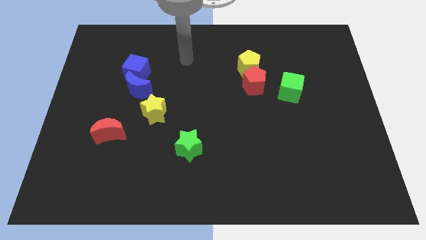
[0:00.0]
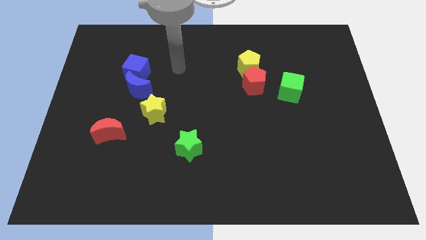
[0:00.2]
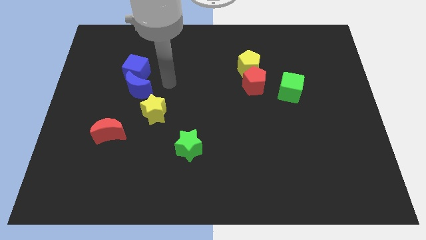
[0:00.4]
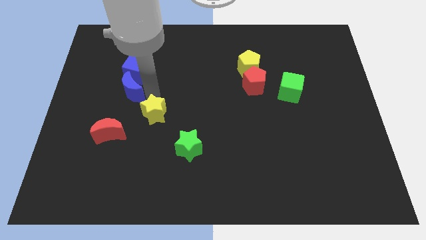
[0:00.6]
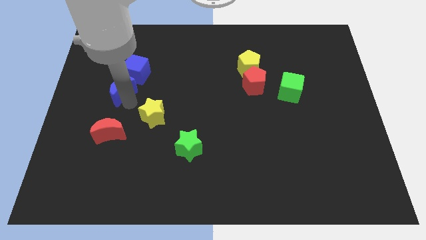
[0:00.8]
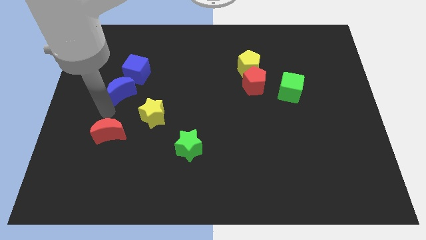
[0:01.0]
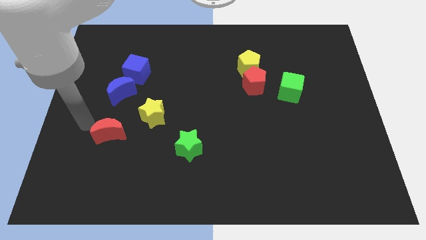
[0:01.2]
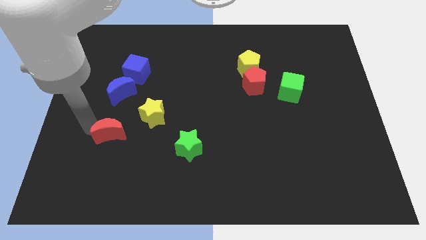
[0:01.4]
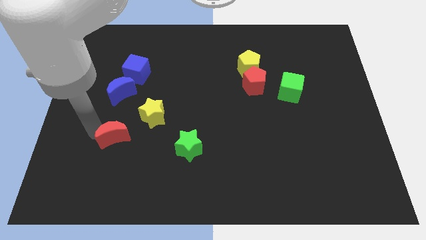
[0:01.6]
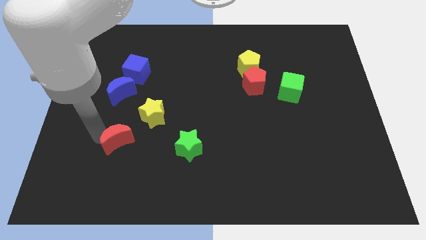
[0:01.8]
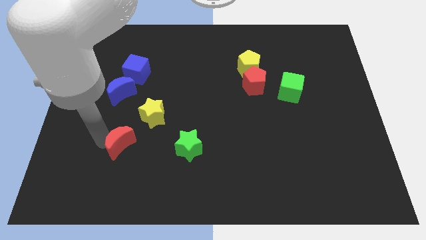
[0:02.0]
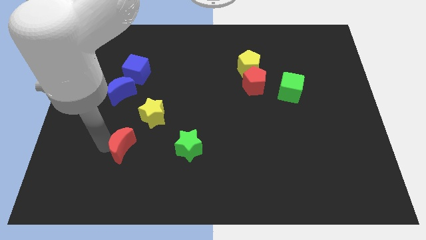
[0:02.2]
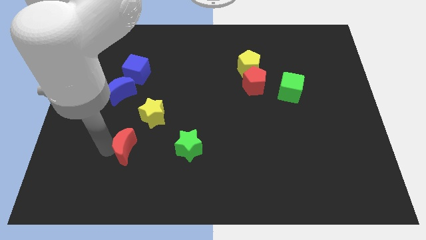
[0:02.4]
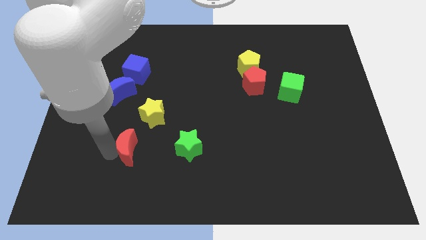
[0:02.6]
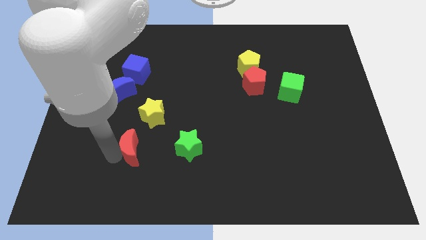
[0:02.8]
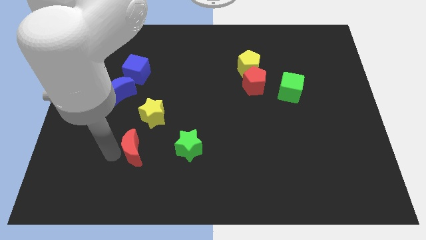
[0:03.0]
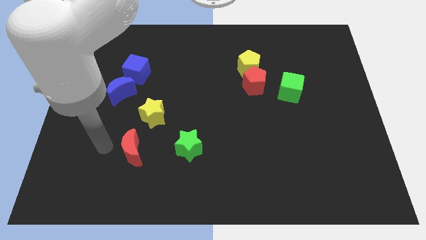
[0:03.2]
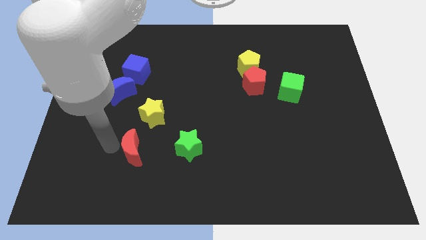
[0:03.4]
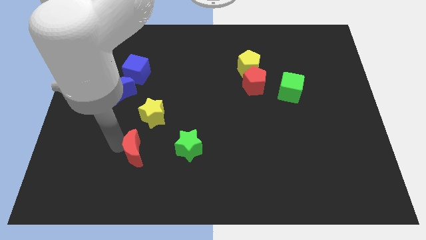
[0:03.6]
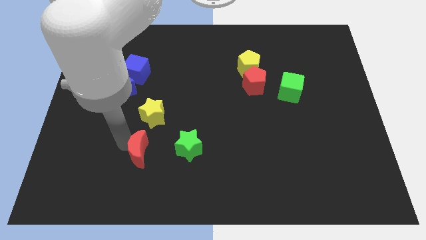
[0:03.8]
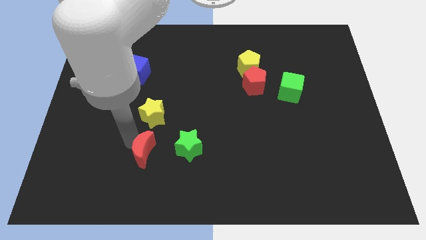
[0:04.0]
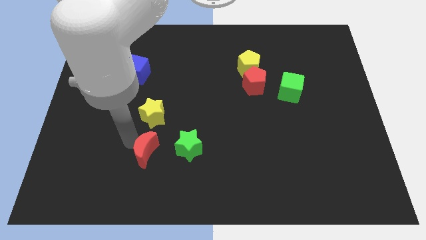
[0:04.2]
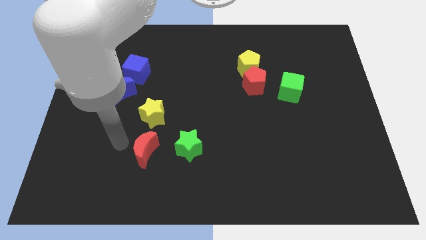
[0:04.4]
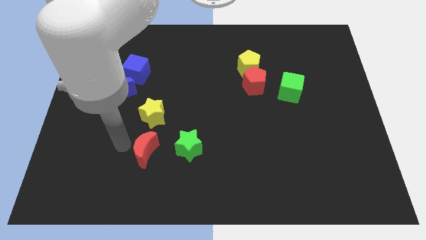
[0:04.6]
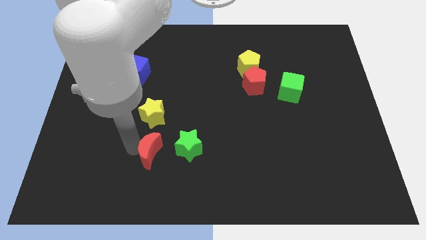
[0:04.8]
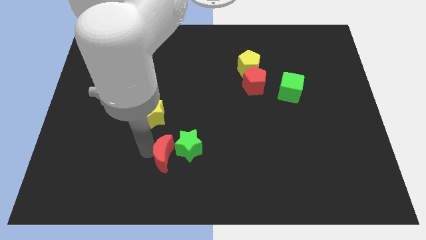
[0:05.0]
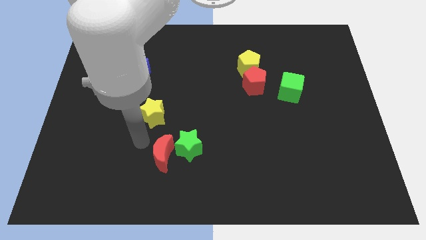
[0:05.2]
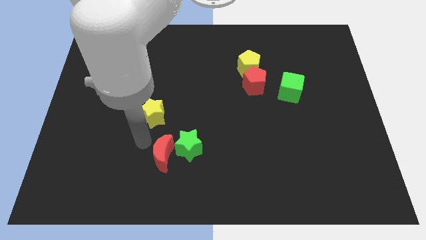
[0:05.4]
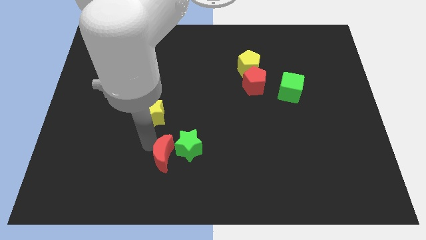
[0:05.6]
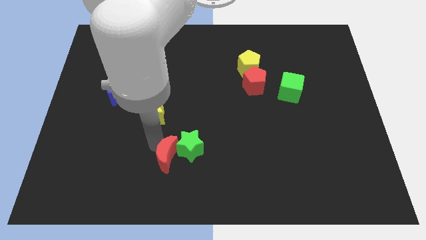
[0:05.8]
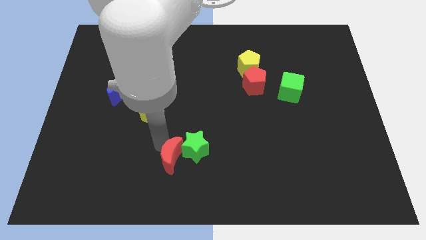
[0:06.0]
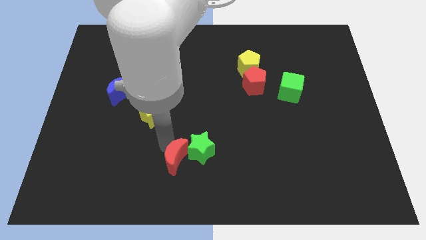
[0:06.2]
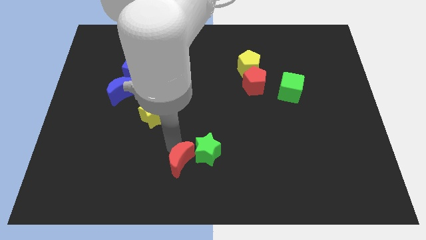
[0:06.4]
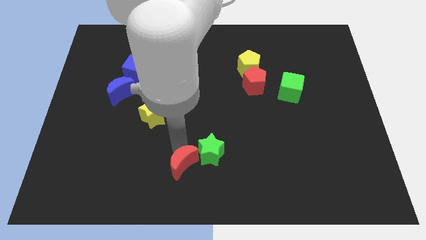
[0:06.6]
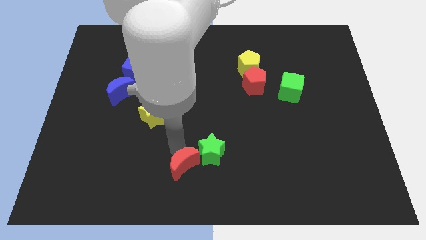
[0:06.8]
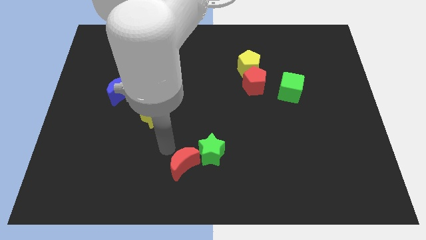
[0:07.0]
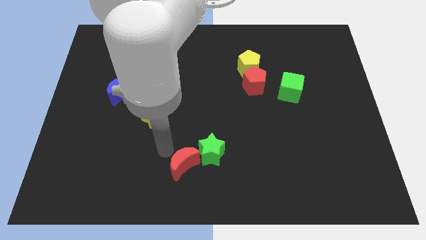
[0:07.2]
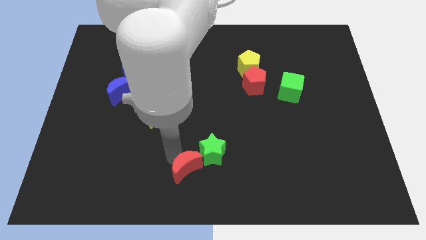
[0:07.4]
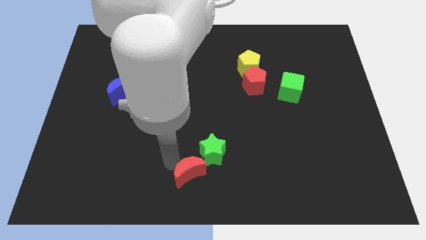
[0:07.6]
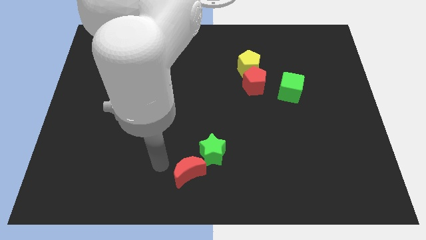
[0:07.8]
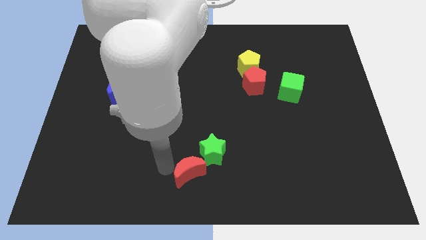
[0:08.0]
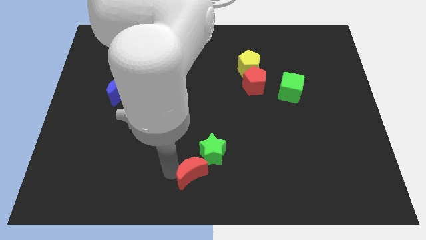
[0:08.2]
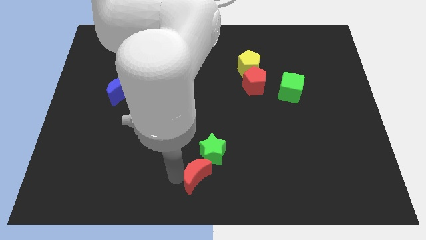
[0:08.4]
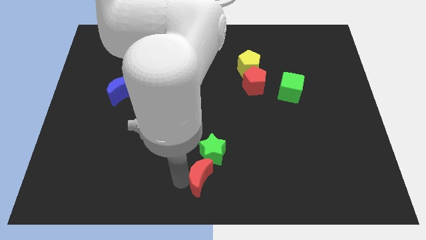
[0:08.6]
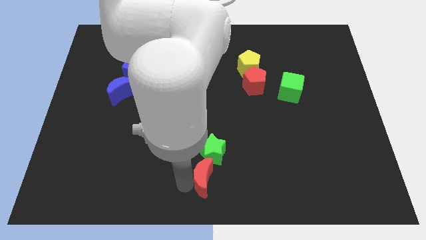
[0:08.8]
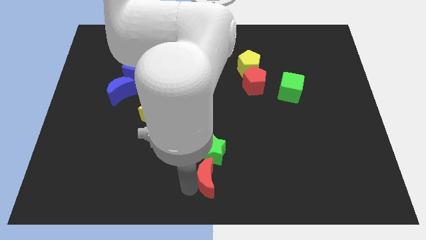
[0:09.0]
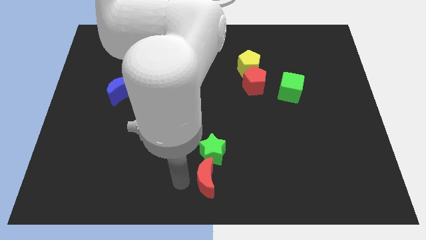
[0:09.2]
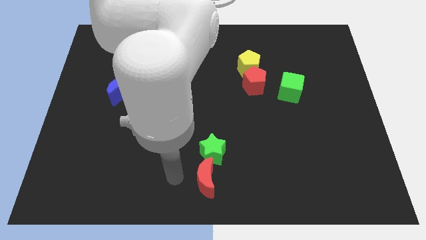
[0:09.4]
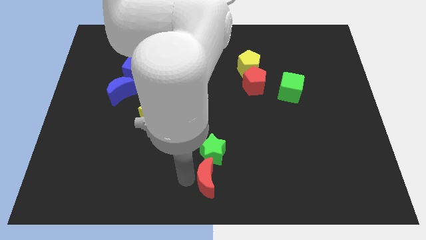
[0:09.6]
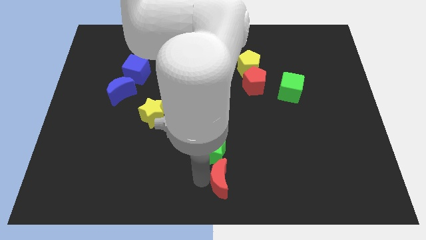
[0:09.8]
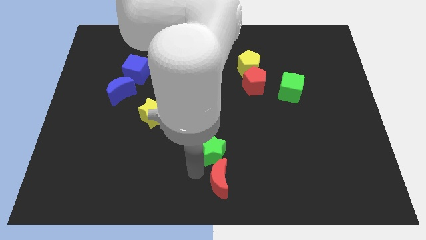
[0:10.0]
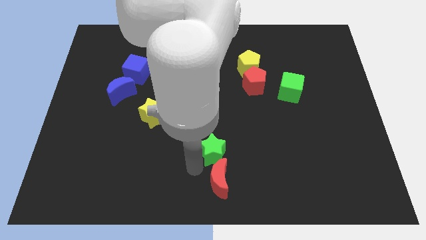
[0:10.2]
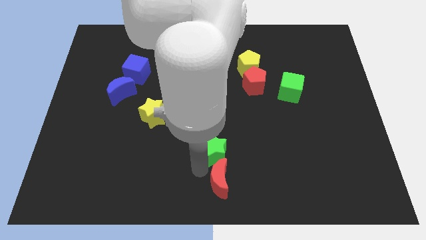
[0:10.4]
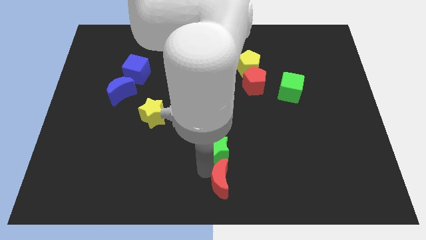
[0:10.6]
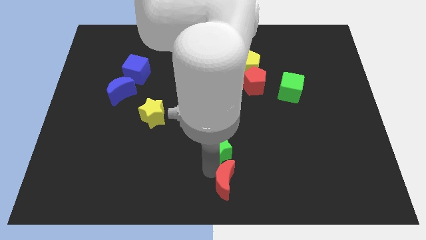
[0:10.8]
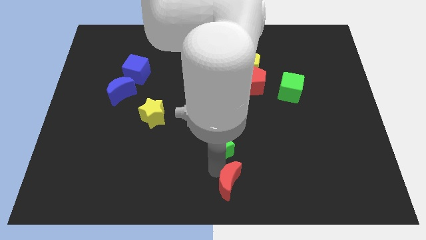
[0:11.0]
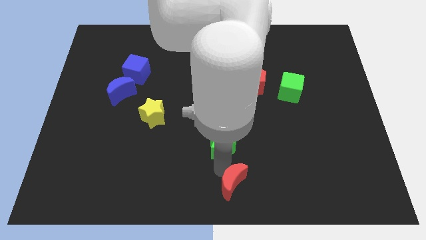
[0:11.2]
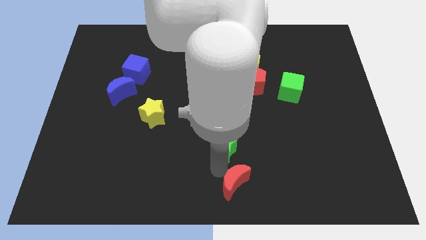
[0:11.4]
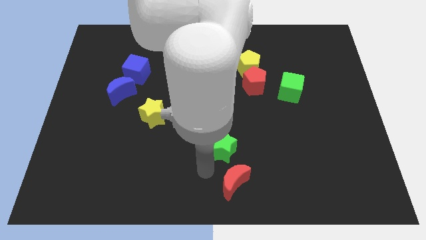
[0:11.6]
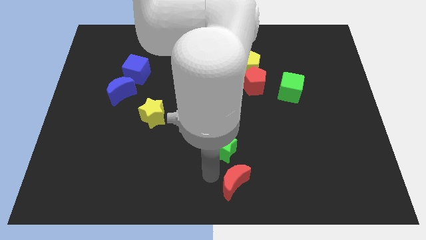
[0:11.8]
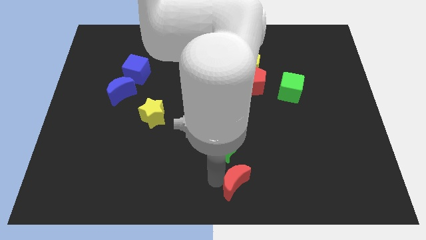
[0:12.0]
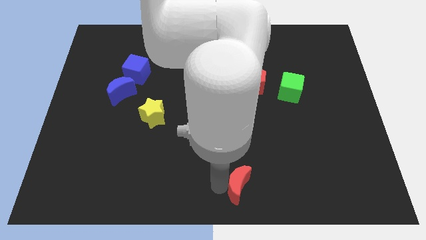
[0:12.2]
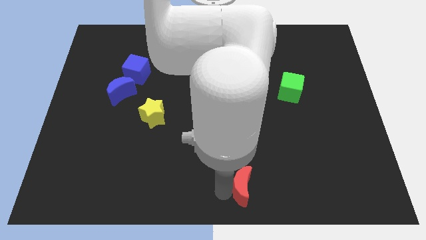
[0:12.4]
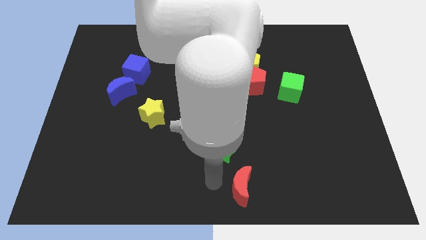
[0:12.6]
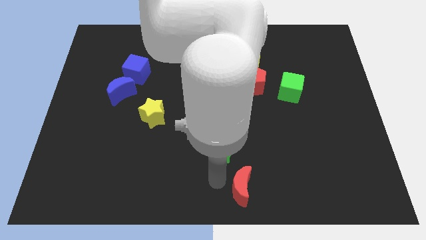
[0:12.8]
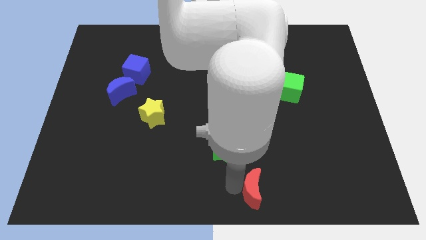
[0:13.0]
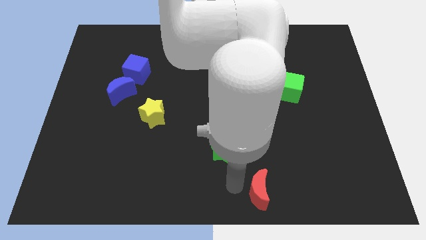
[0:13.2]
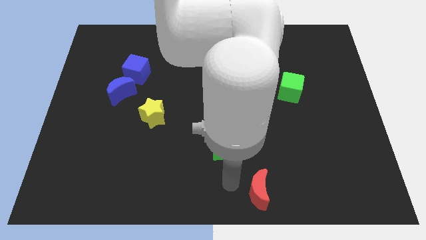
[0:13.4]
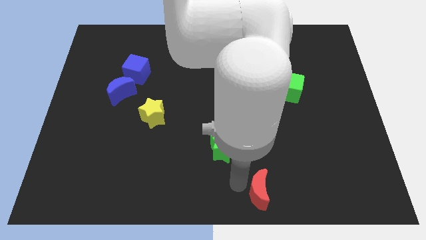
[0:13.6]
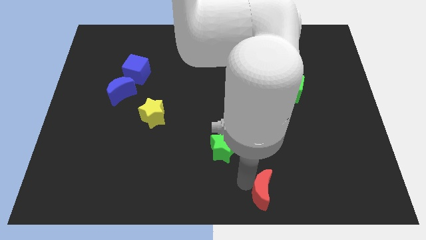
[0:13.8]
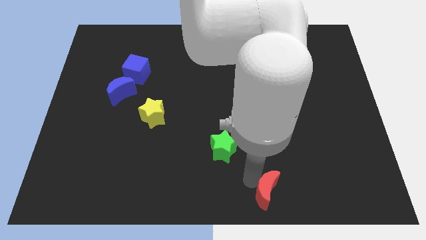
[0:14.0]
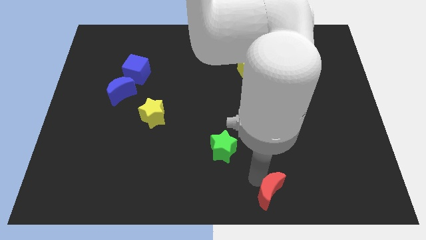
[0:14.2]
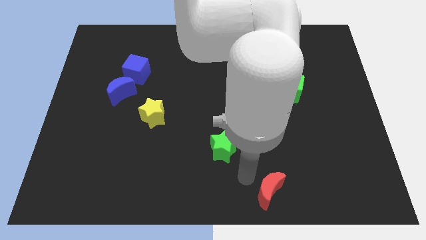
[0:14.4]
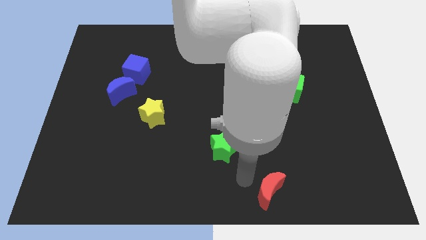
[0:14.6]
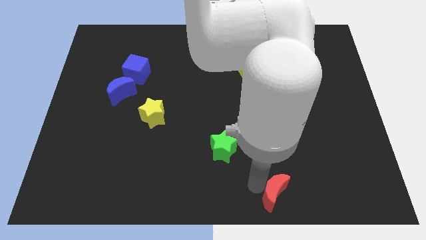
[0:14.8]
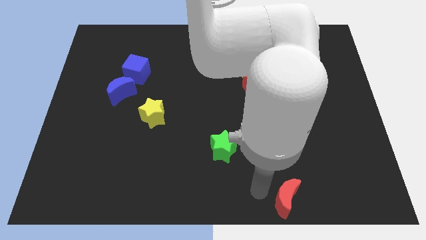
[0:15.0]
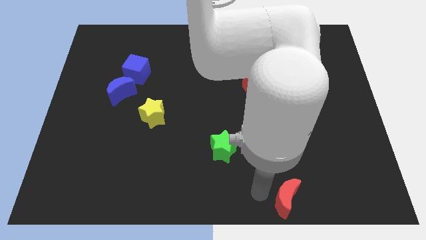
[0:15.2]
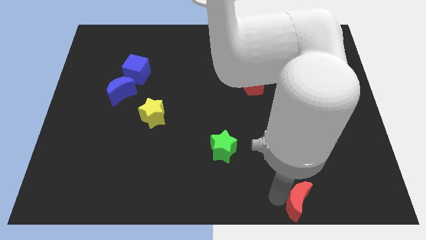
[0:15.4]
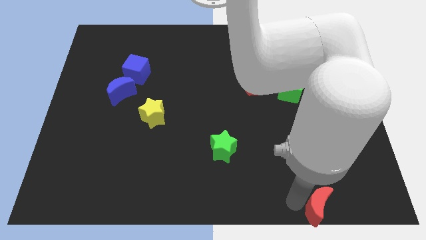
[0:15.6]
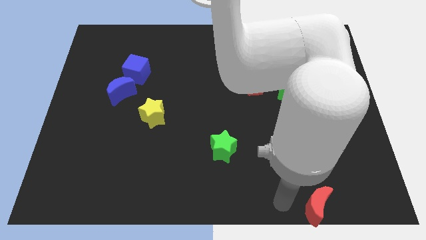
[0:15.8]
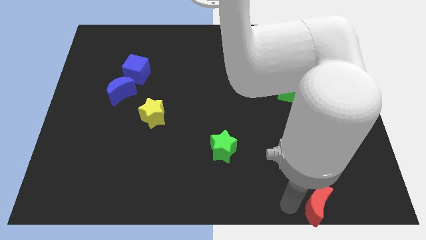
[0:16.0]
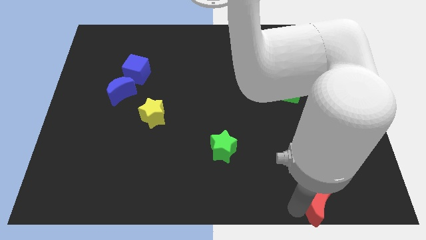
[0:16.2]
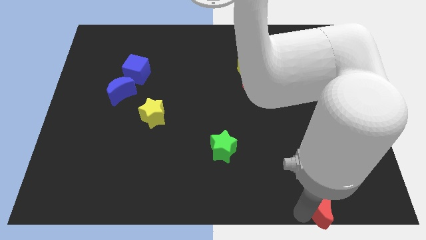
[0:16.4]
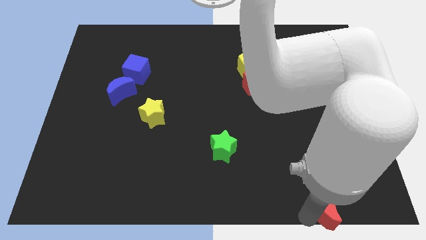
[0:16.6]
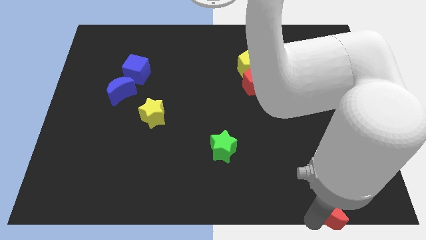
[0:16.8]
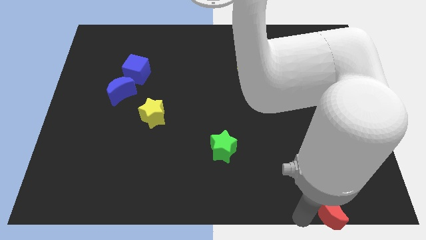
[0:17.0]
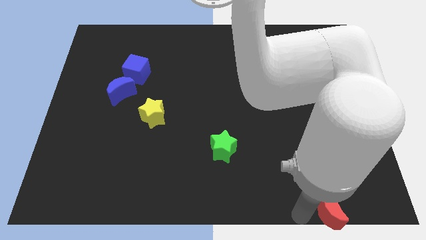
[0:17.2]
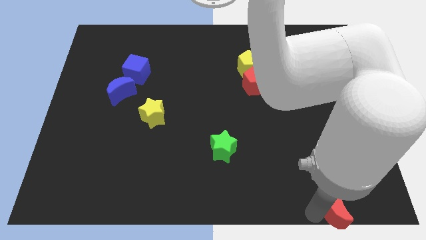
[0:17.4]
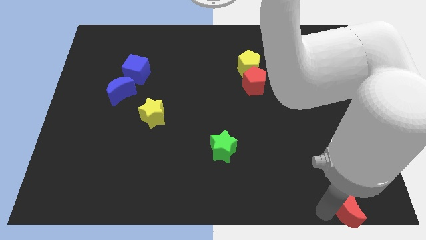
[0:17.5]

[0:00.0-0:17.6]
push the red moon to the bottom right
